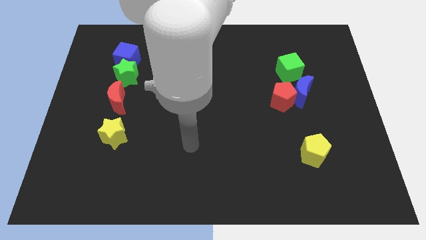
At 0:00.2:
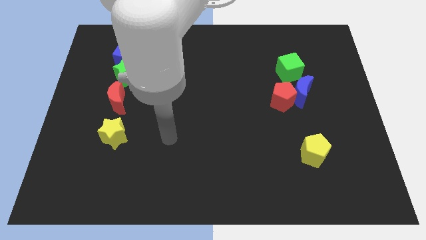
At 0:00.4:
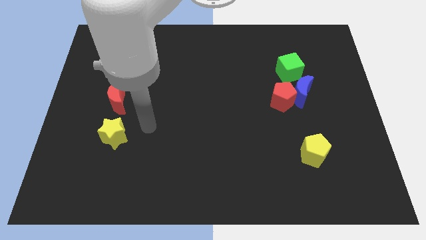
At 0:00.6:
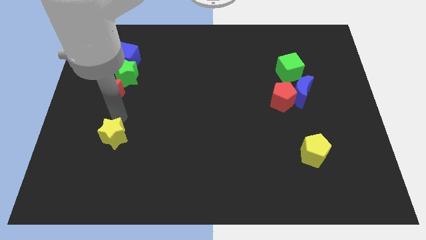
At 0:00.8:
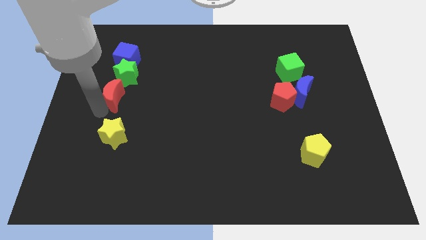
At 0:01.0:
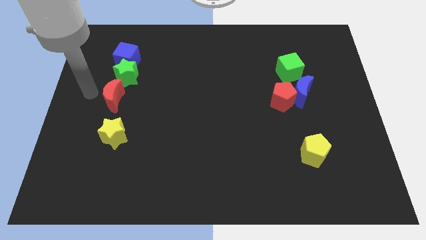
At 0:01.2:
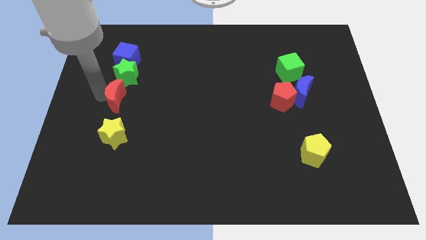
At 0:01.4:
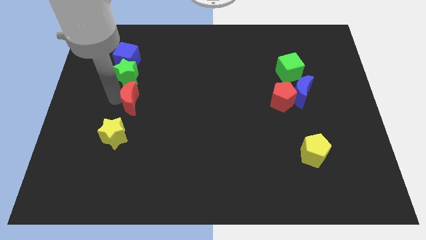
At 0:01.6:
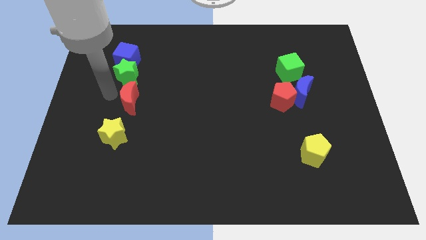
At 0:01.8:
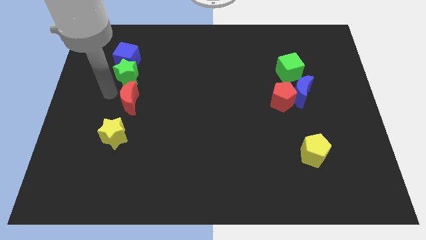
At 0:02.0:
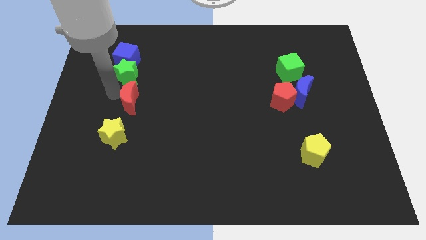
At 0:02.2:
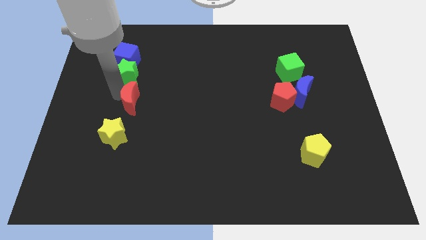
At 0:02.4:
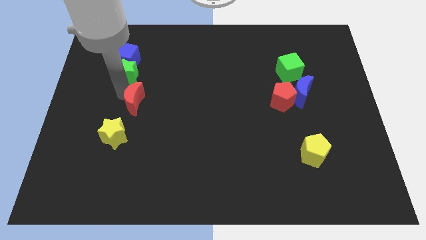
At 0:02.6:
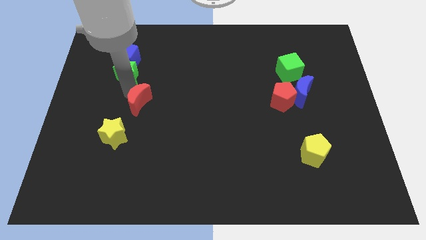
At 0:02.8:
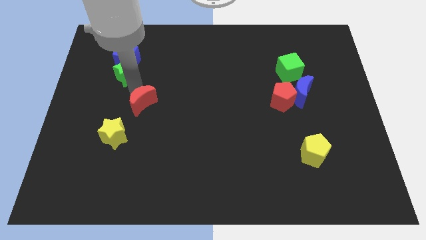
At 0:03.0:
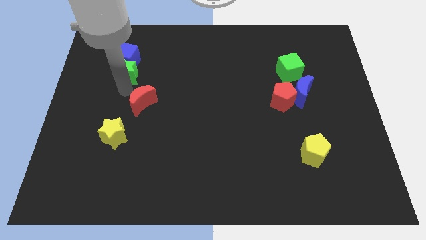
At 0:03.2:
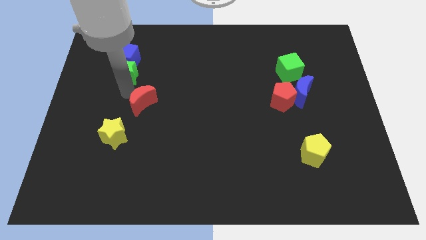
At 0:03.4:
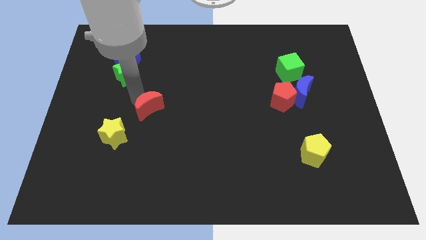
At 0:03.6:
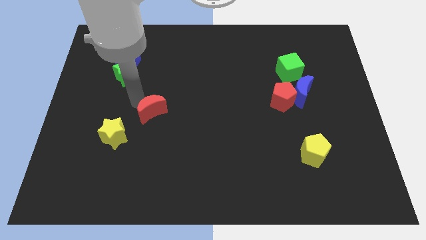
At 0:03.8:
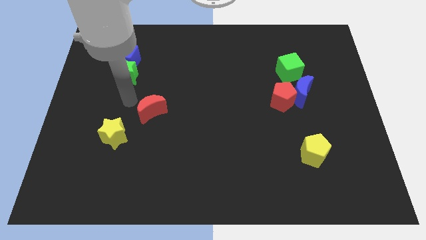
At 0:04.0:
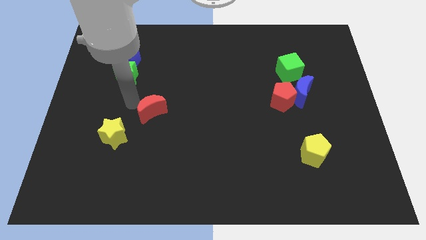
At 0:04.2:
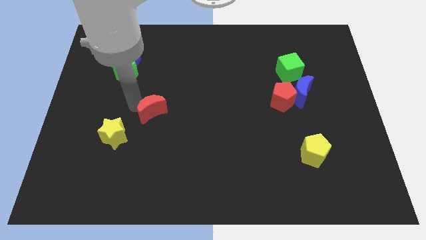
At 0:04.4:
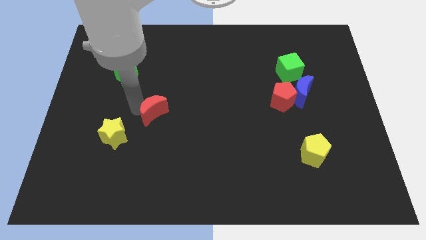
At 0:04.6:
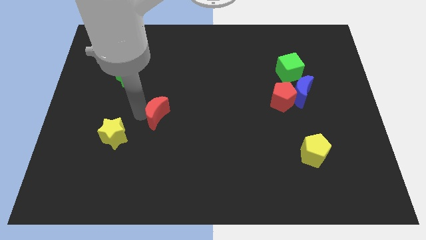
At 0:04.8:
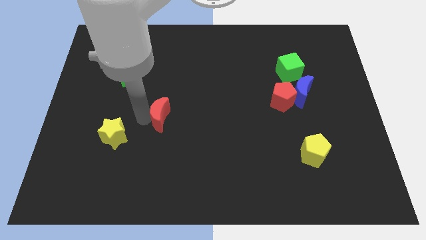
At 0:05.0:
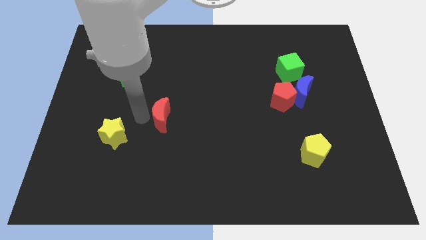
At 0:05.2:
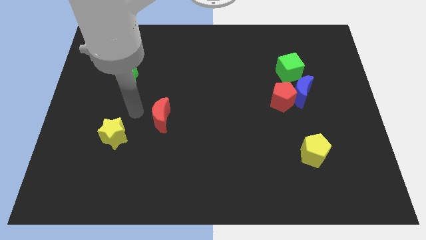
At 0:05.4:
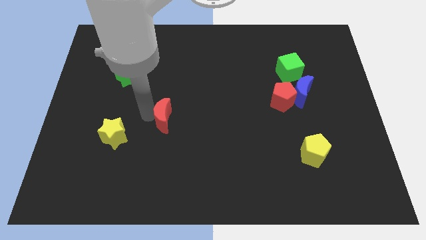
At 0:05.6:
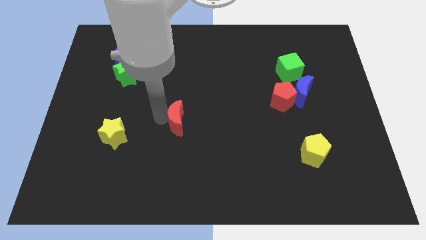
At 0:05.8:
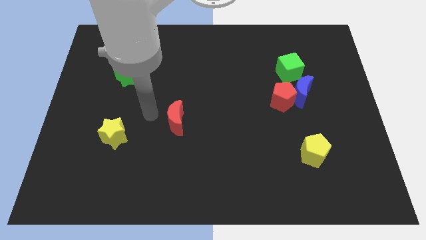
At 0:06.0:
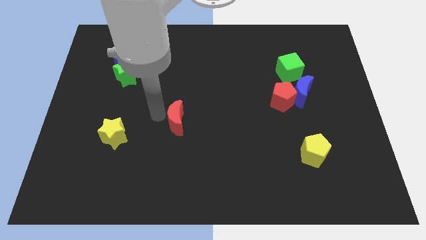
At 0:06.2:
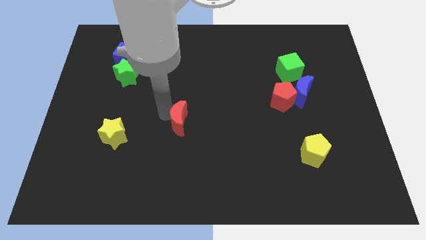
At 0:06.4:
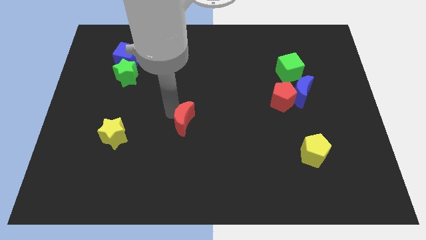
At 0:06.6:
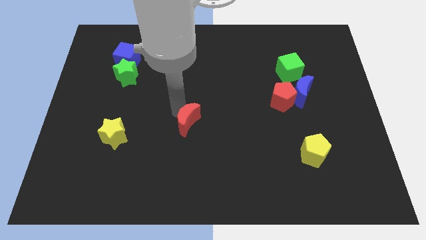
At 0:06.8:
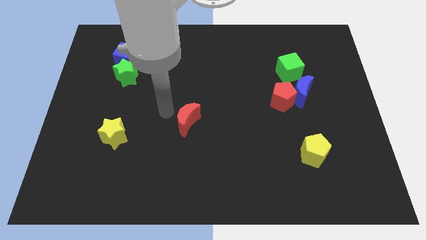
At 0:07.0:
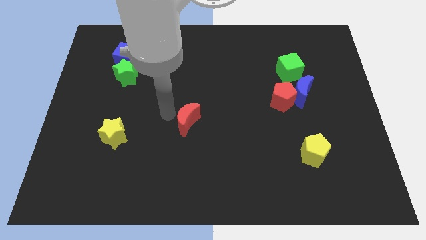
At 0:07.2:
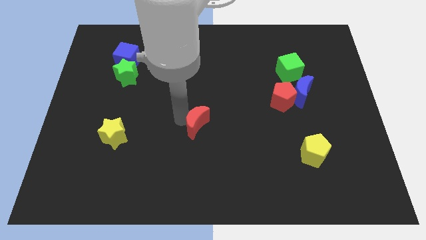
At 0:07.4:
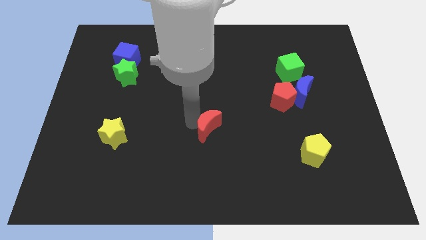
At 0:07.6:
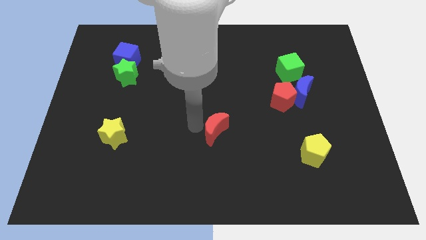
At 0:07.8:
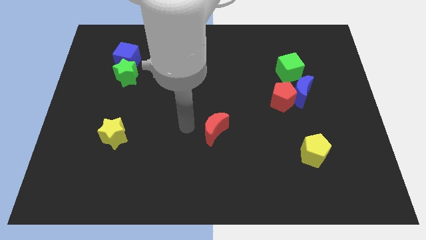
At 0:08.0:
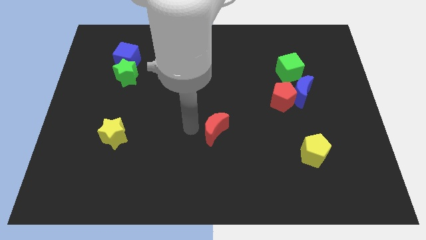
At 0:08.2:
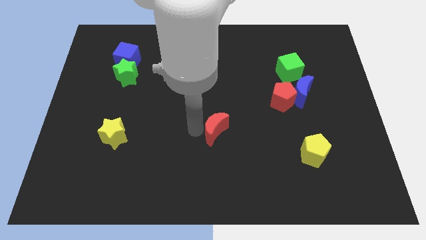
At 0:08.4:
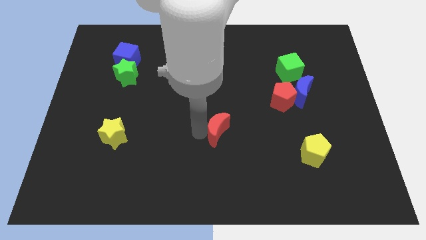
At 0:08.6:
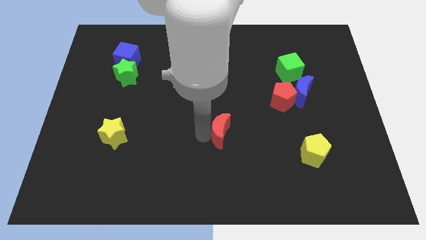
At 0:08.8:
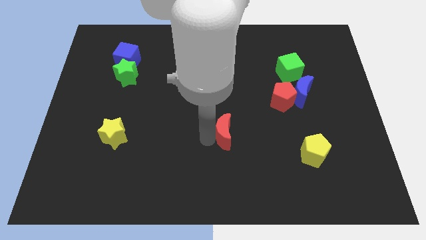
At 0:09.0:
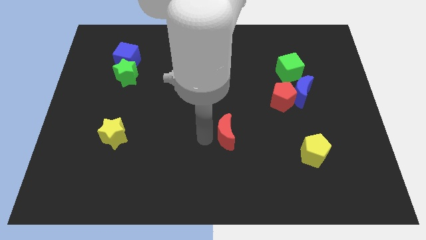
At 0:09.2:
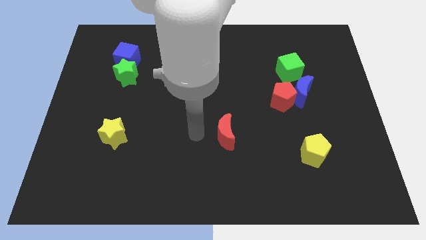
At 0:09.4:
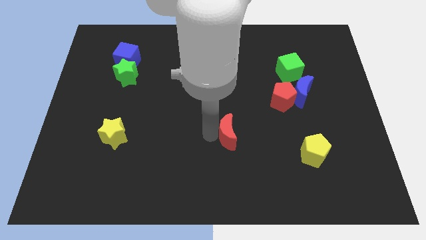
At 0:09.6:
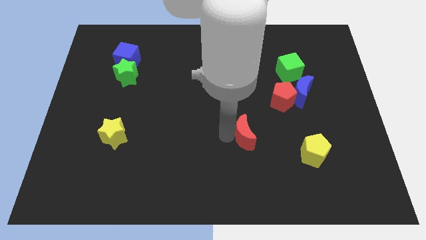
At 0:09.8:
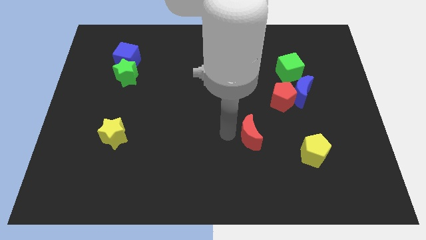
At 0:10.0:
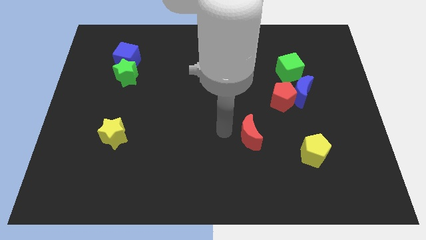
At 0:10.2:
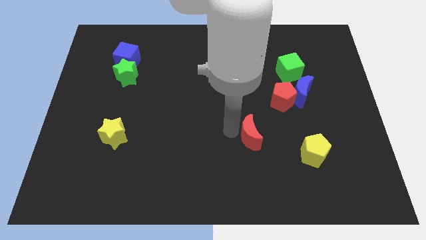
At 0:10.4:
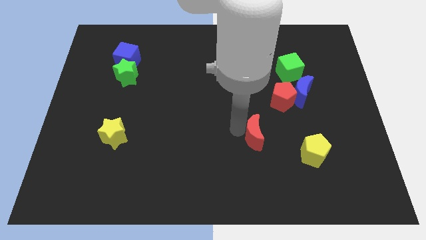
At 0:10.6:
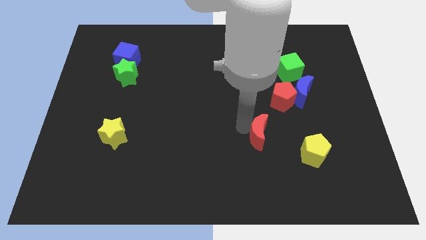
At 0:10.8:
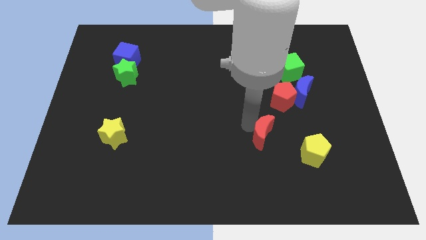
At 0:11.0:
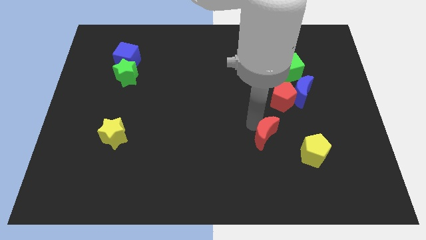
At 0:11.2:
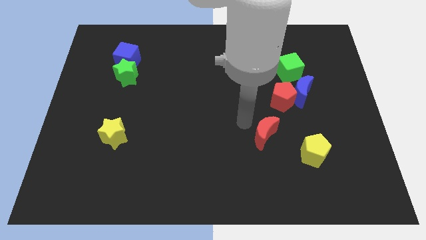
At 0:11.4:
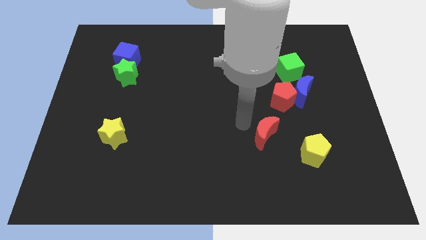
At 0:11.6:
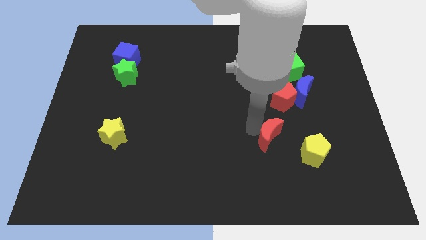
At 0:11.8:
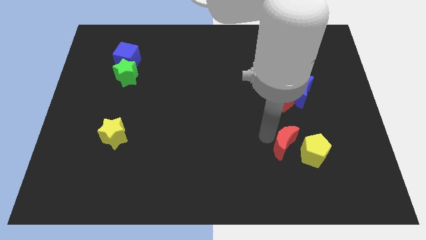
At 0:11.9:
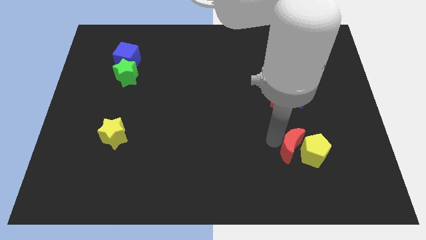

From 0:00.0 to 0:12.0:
slide the red moon to the yellow pentagon
